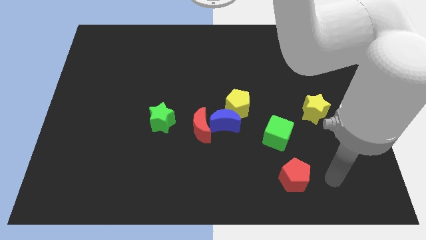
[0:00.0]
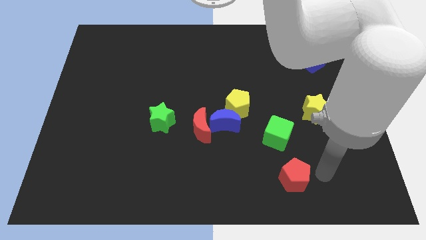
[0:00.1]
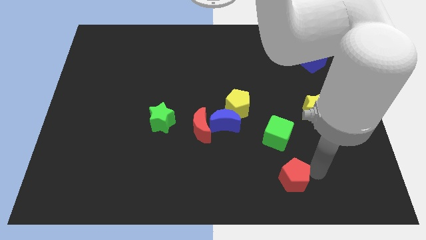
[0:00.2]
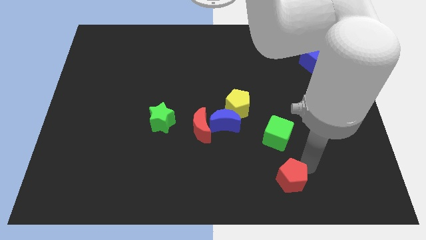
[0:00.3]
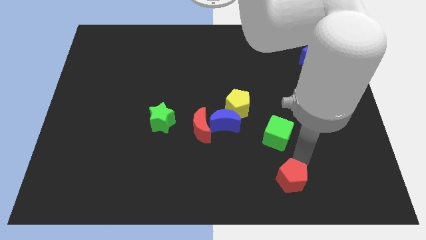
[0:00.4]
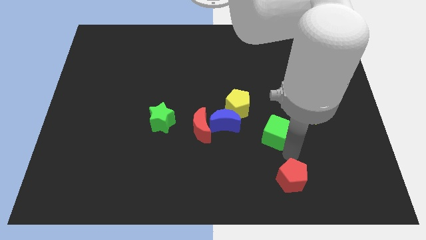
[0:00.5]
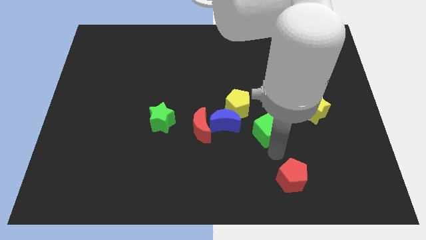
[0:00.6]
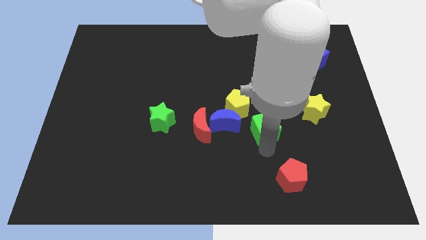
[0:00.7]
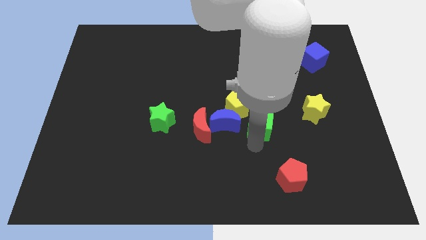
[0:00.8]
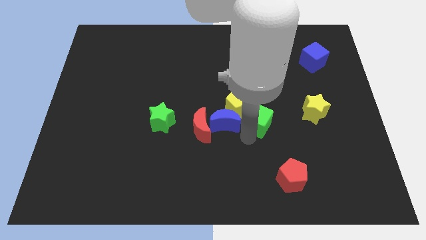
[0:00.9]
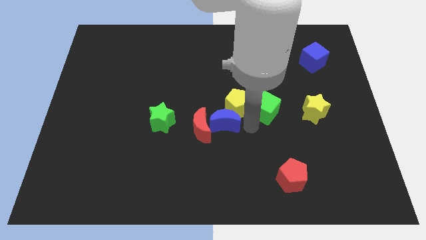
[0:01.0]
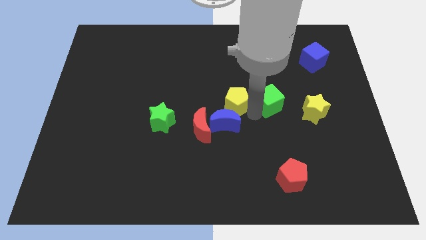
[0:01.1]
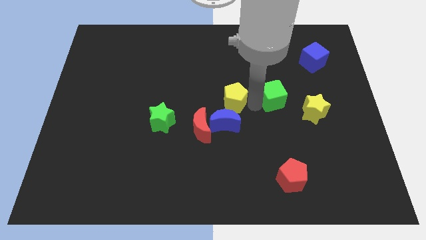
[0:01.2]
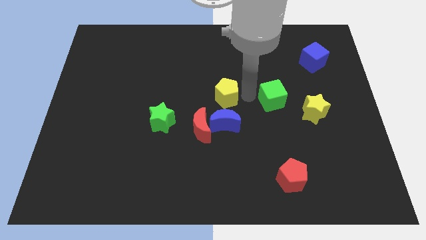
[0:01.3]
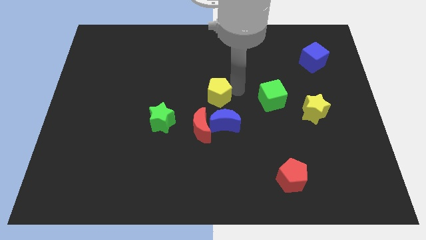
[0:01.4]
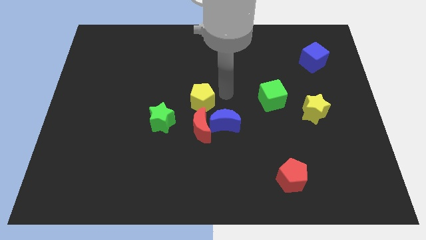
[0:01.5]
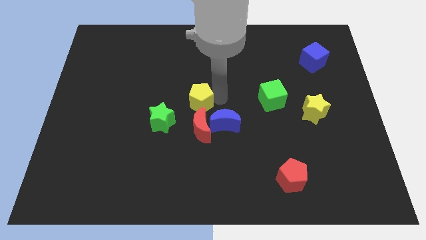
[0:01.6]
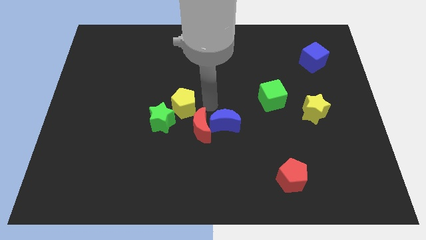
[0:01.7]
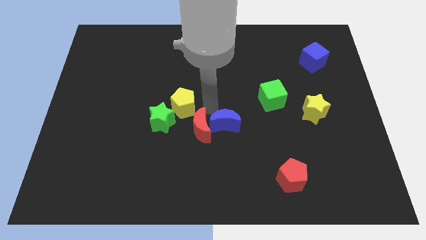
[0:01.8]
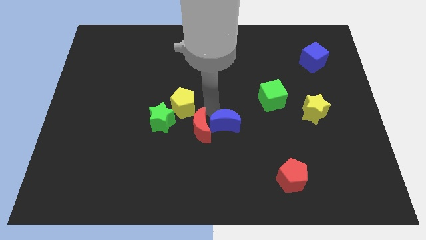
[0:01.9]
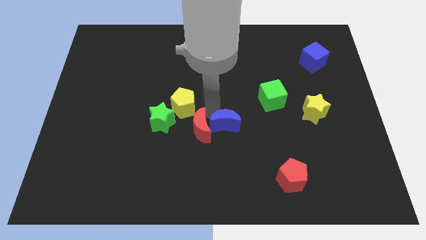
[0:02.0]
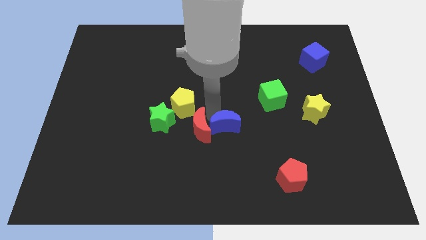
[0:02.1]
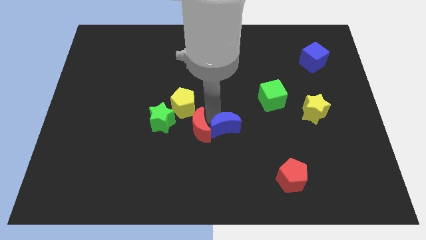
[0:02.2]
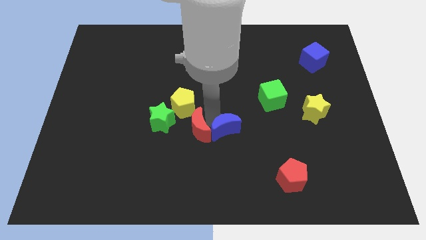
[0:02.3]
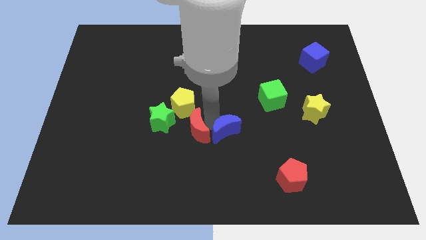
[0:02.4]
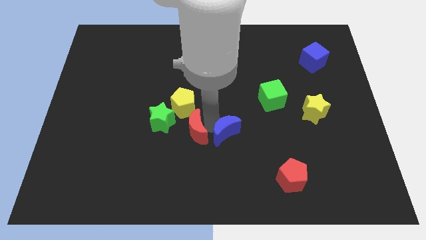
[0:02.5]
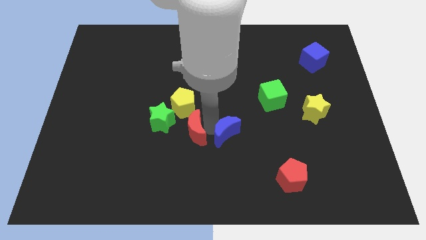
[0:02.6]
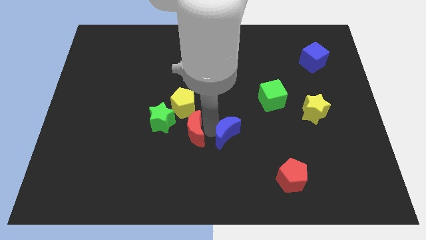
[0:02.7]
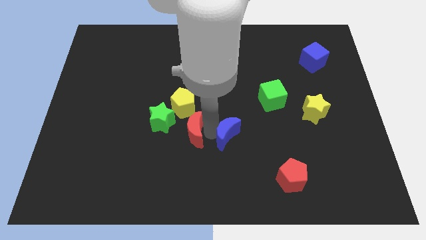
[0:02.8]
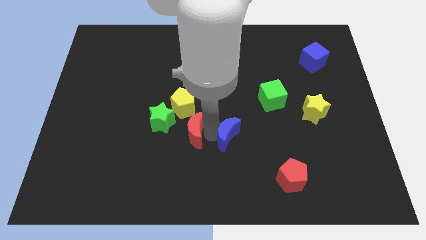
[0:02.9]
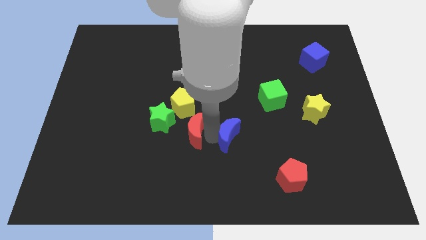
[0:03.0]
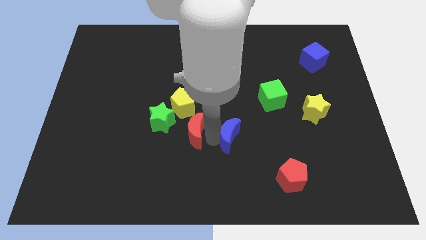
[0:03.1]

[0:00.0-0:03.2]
separate the blue moon from the red moon and yellow pentagon

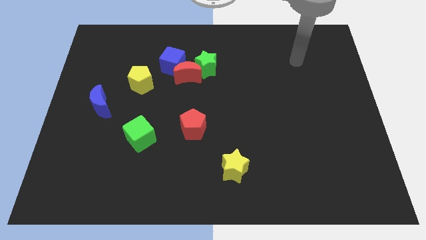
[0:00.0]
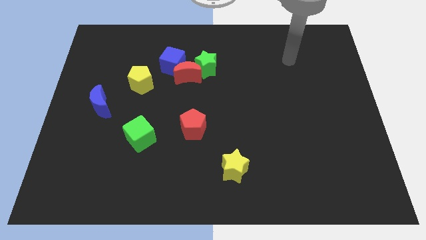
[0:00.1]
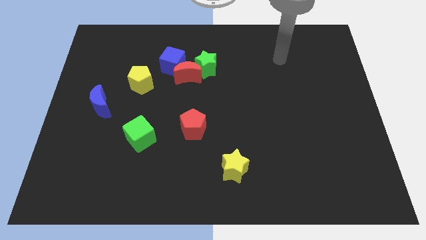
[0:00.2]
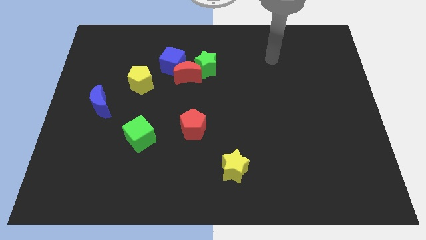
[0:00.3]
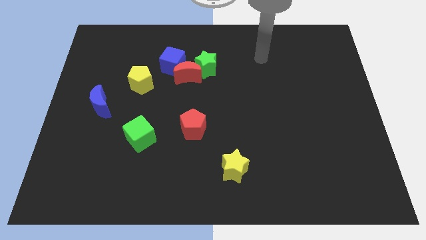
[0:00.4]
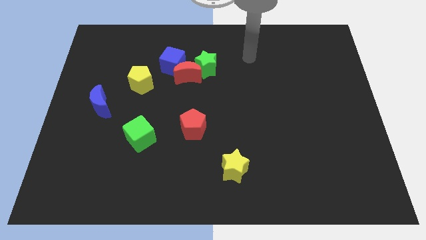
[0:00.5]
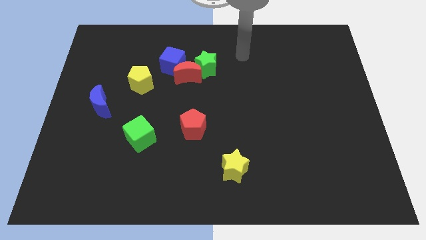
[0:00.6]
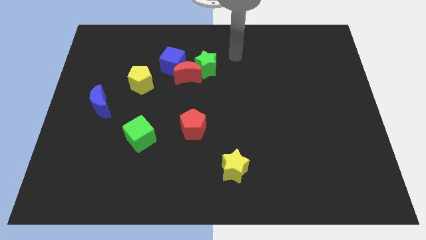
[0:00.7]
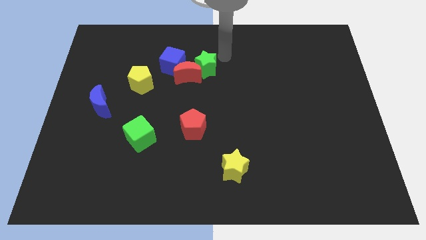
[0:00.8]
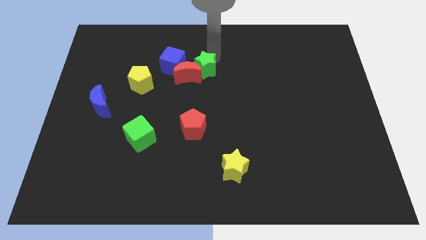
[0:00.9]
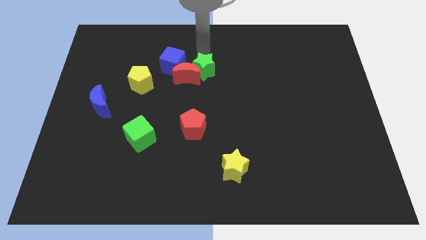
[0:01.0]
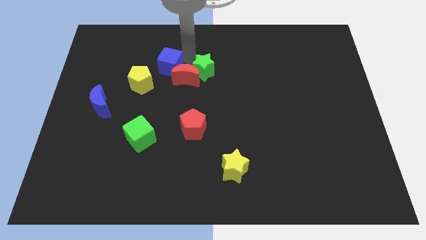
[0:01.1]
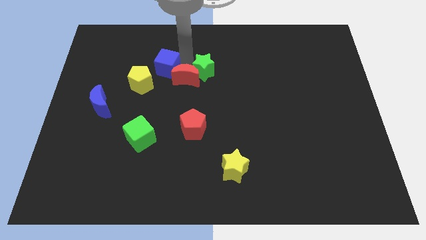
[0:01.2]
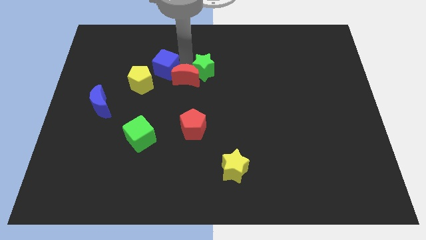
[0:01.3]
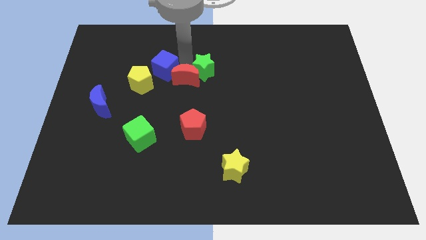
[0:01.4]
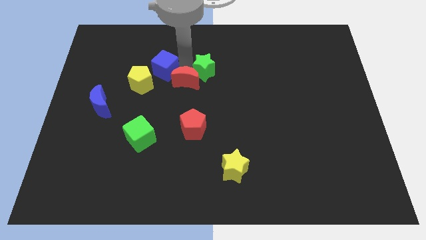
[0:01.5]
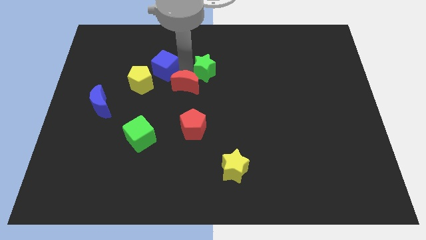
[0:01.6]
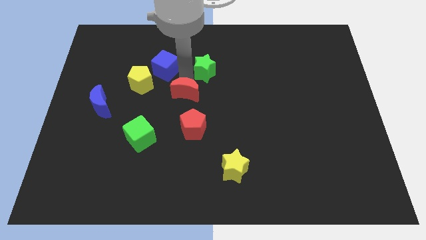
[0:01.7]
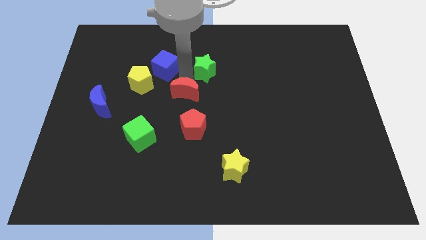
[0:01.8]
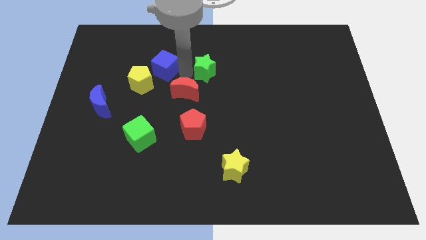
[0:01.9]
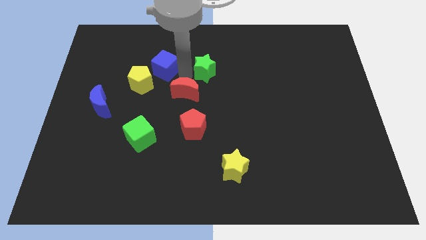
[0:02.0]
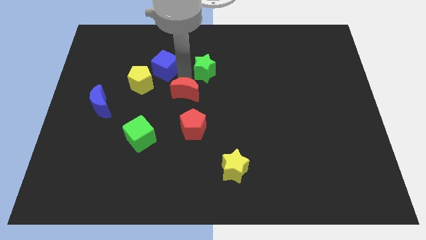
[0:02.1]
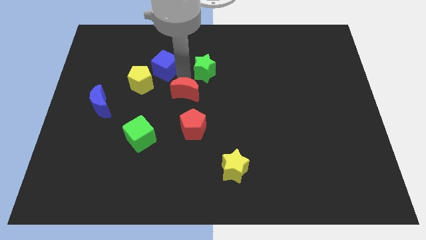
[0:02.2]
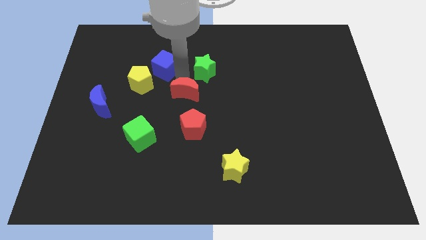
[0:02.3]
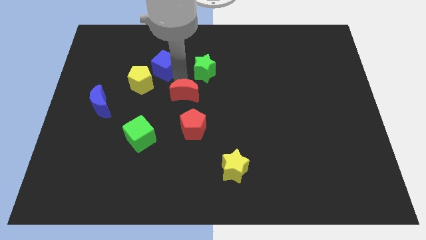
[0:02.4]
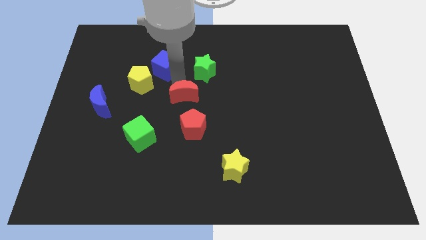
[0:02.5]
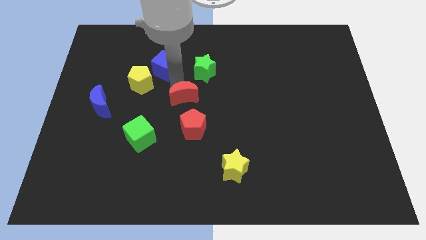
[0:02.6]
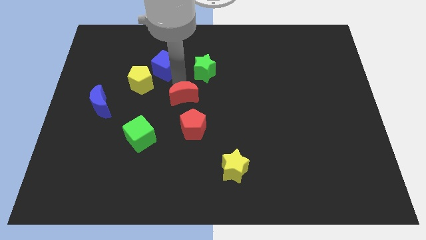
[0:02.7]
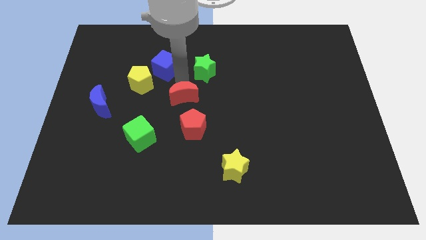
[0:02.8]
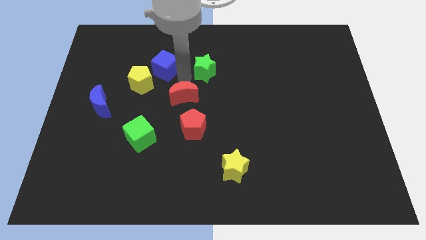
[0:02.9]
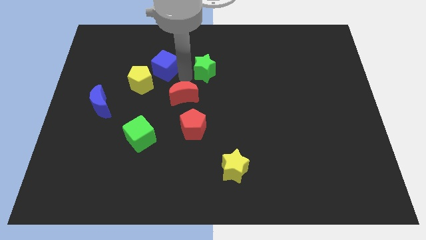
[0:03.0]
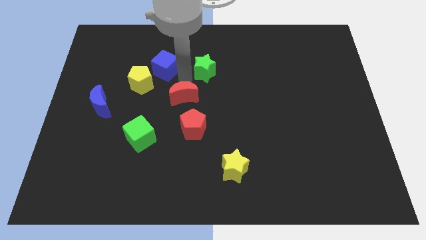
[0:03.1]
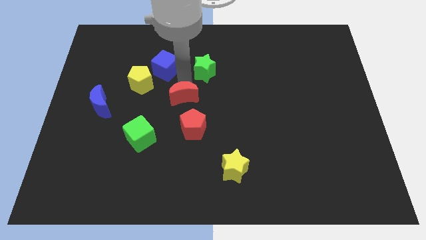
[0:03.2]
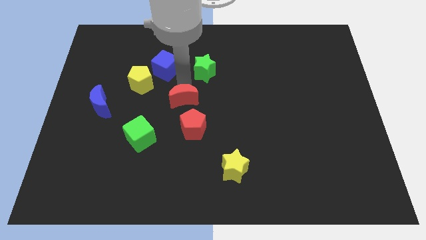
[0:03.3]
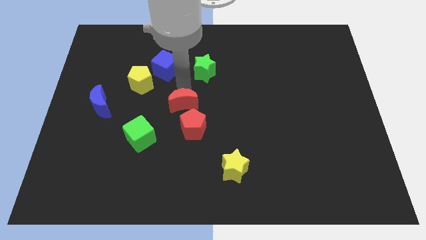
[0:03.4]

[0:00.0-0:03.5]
separate the red moon from the blue cube and green star

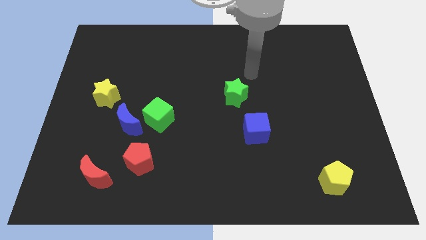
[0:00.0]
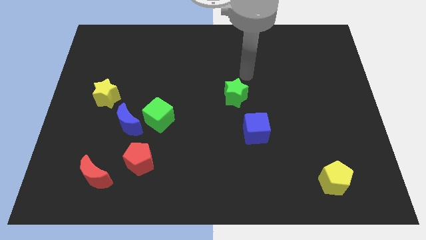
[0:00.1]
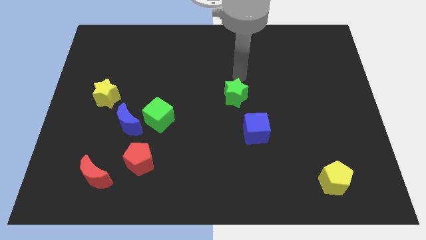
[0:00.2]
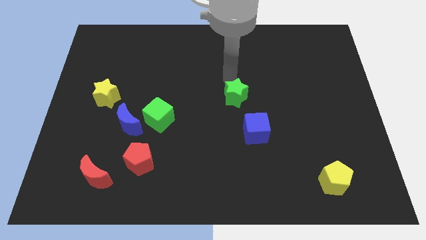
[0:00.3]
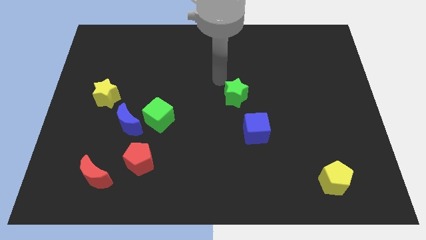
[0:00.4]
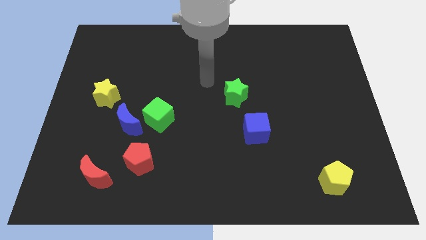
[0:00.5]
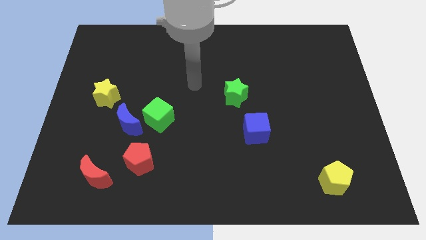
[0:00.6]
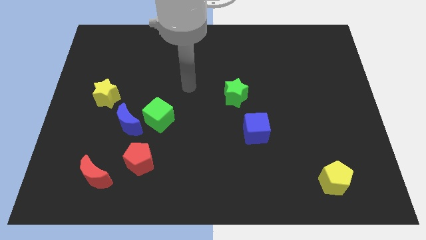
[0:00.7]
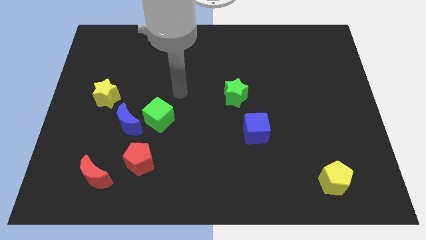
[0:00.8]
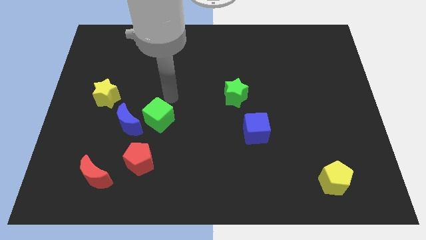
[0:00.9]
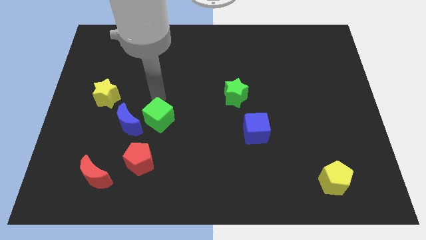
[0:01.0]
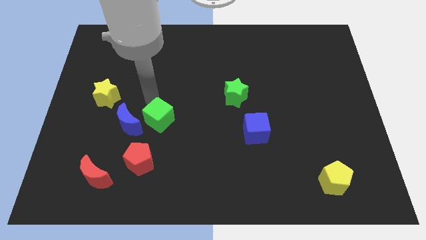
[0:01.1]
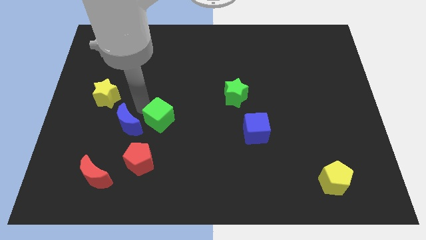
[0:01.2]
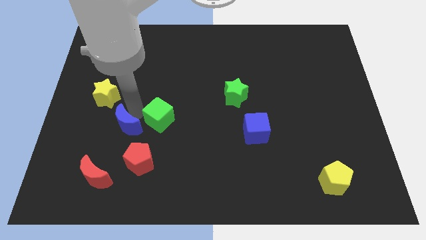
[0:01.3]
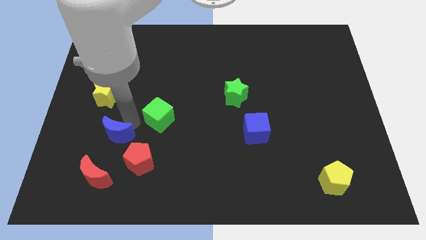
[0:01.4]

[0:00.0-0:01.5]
pull the green cube apart from the blue moon

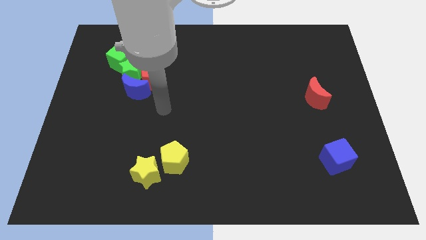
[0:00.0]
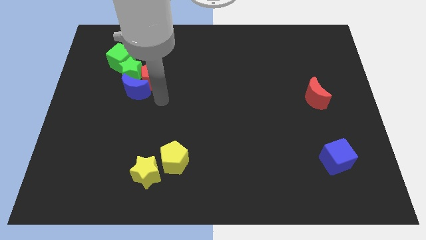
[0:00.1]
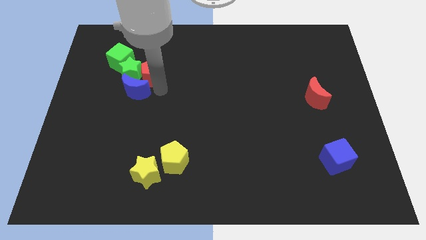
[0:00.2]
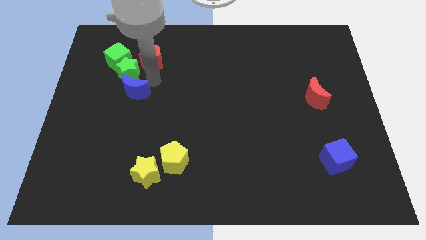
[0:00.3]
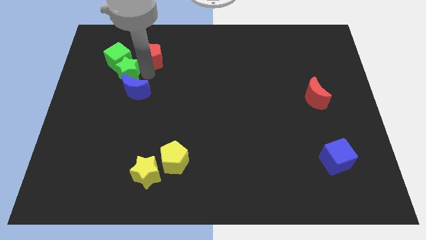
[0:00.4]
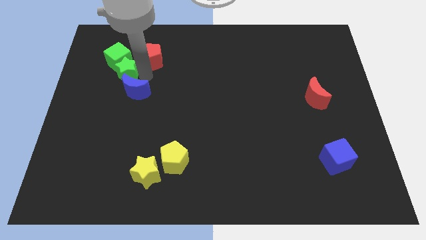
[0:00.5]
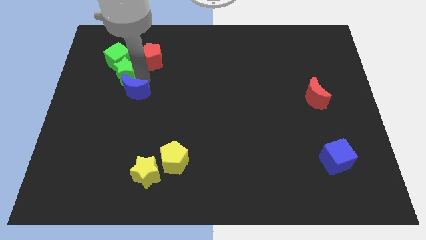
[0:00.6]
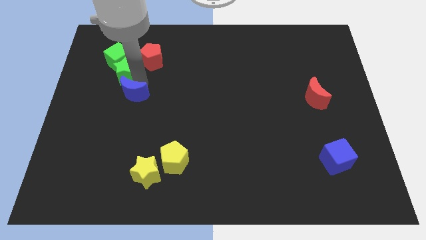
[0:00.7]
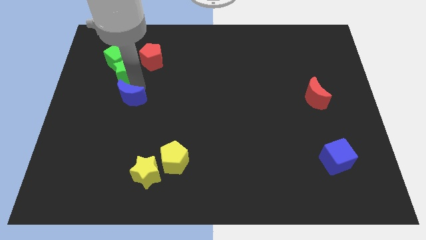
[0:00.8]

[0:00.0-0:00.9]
move the blue moon away from the red pentagon and green star

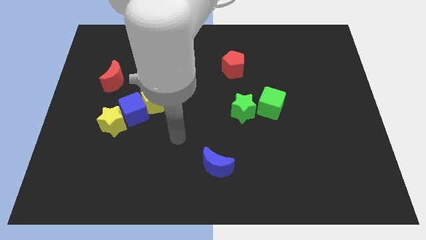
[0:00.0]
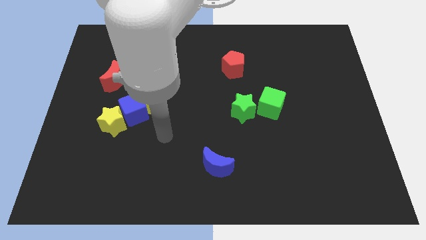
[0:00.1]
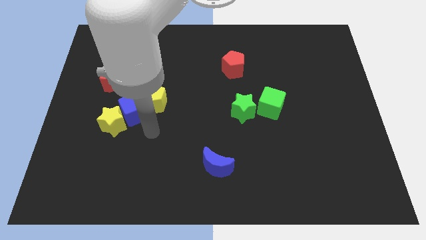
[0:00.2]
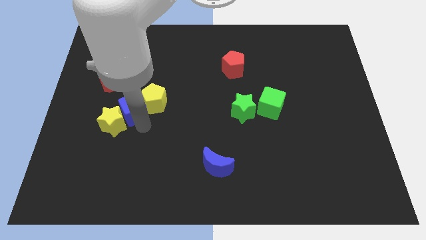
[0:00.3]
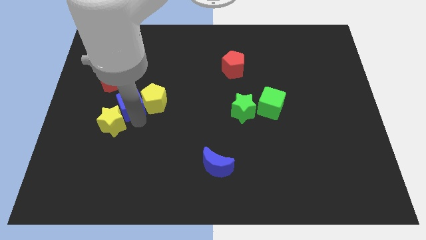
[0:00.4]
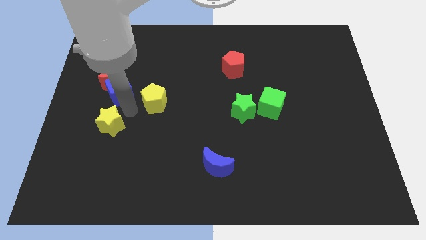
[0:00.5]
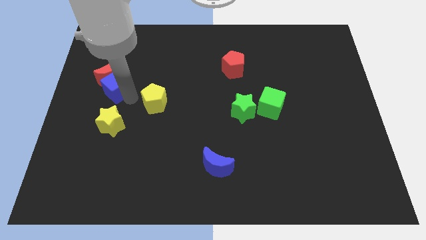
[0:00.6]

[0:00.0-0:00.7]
pull the yellow pentagon apart from the blue cube
